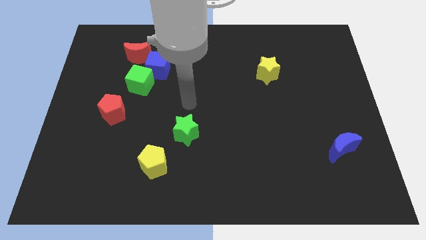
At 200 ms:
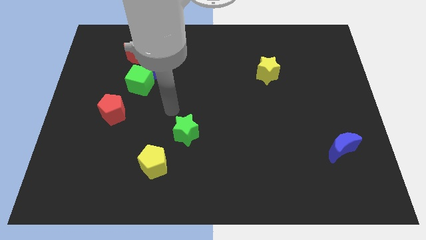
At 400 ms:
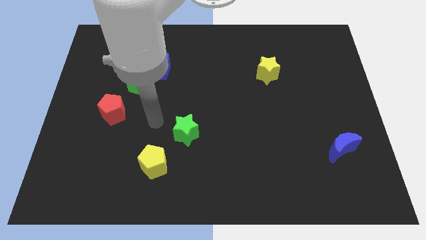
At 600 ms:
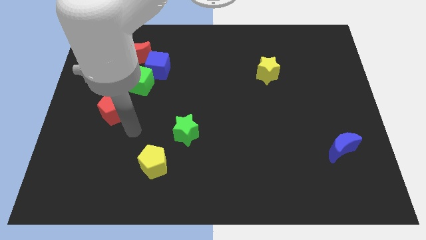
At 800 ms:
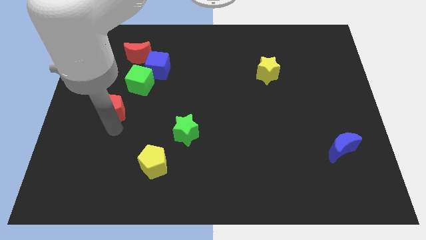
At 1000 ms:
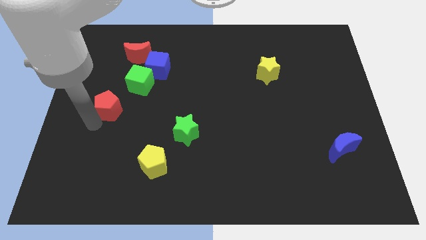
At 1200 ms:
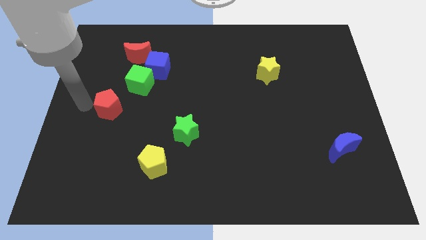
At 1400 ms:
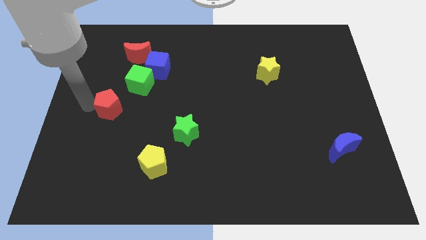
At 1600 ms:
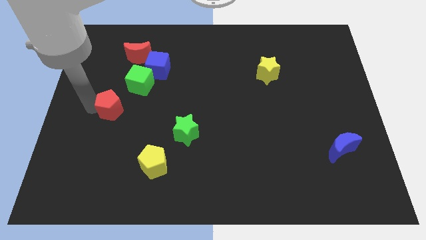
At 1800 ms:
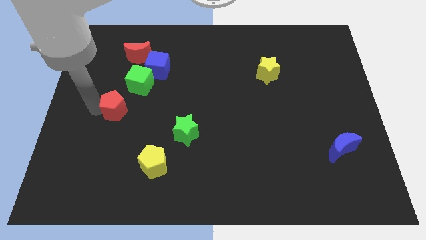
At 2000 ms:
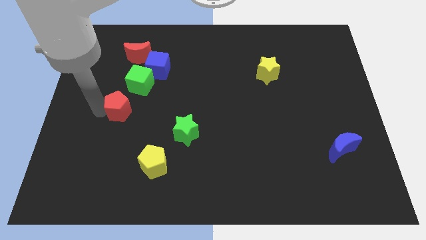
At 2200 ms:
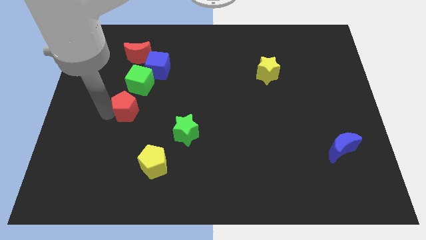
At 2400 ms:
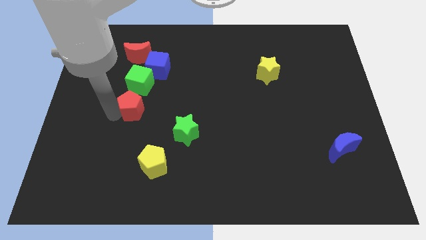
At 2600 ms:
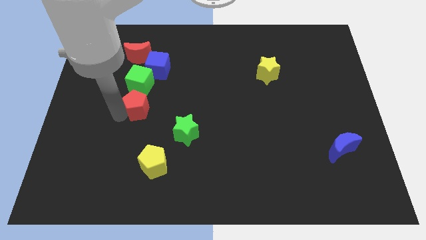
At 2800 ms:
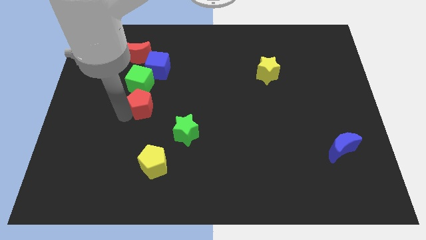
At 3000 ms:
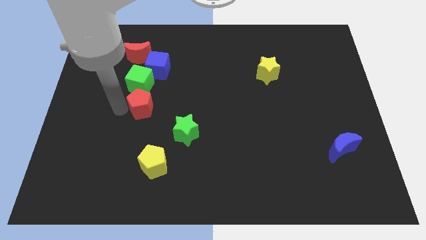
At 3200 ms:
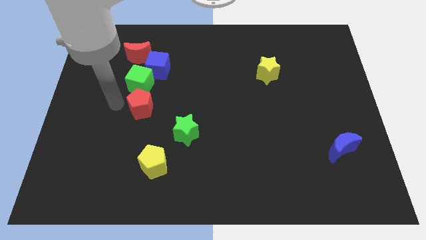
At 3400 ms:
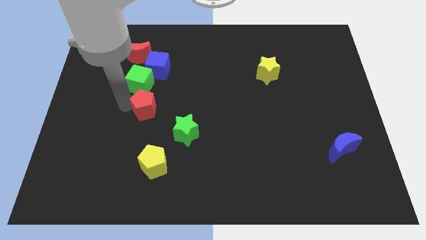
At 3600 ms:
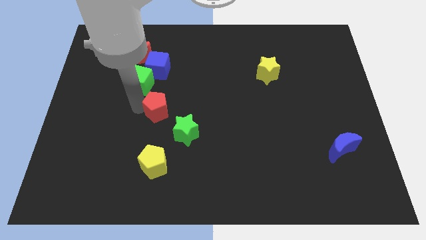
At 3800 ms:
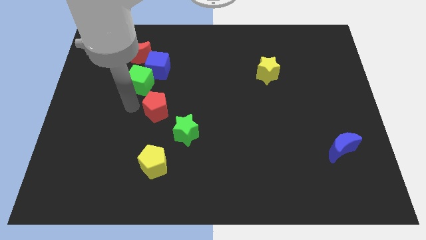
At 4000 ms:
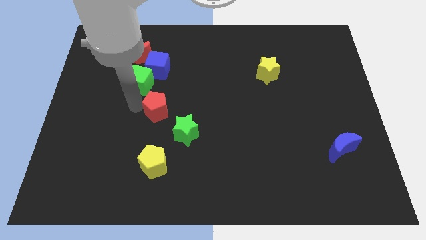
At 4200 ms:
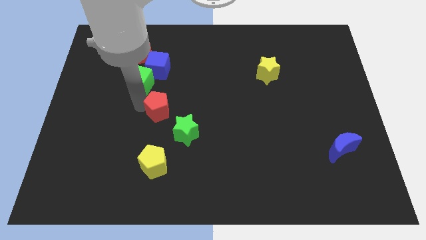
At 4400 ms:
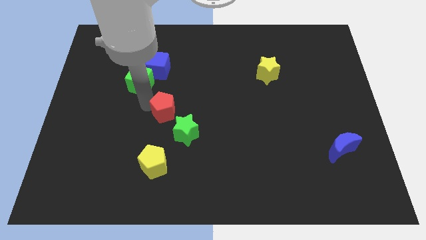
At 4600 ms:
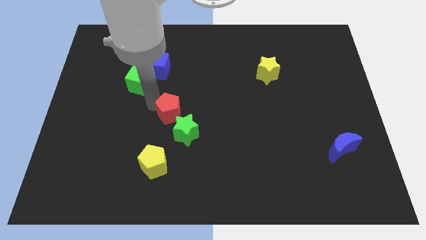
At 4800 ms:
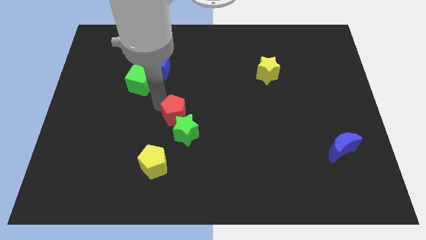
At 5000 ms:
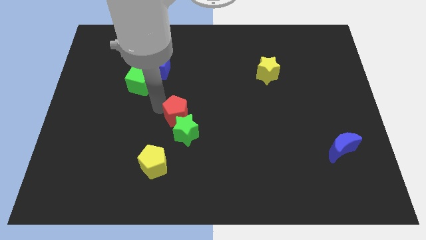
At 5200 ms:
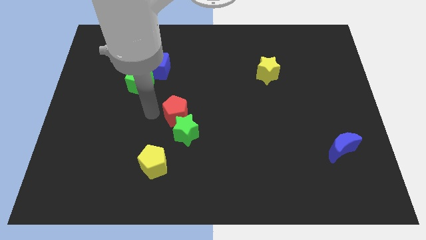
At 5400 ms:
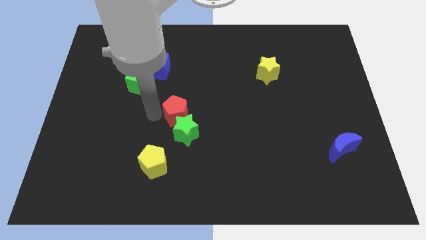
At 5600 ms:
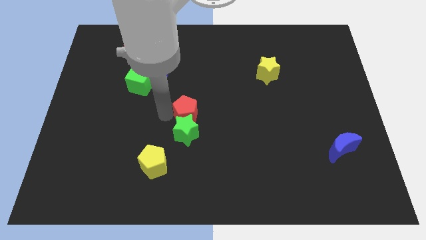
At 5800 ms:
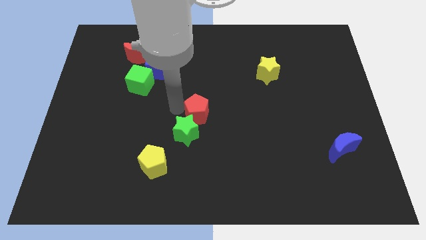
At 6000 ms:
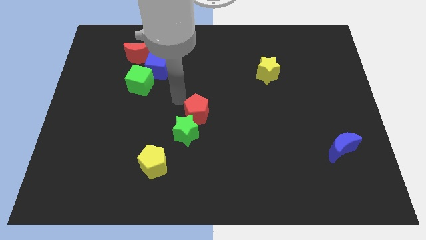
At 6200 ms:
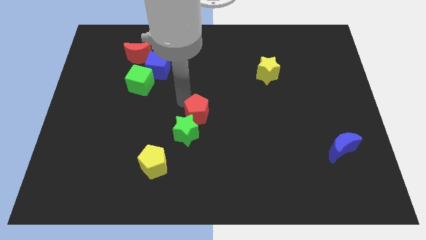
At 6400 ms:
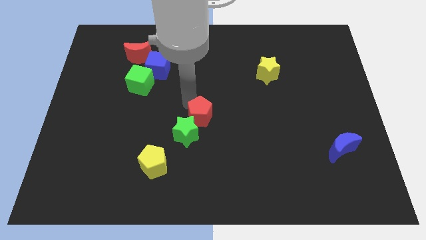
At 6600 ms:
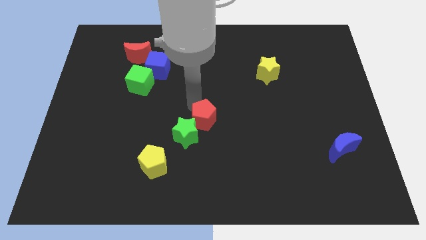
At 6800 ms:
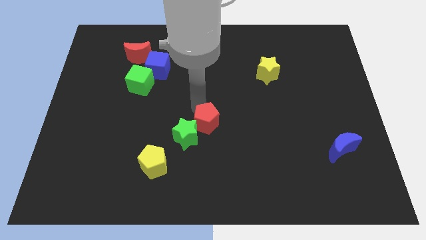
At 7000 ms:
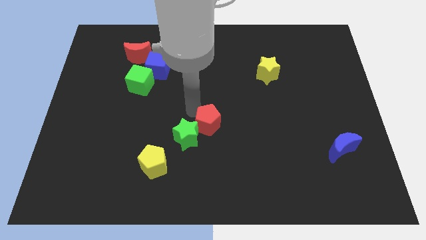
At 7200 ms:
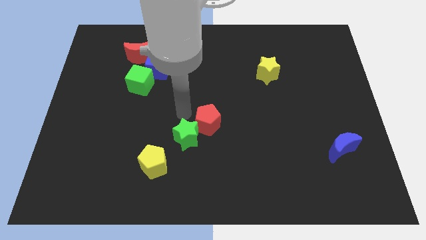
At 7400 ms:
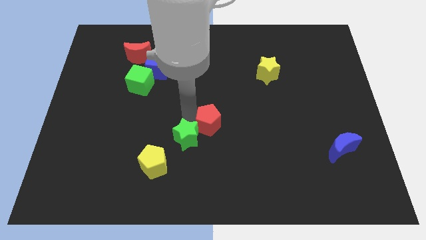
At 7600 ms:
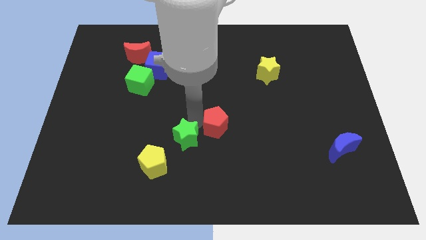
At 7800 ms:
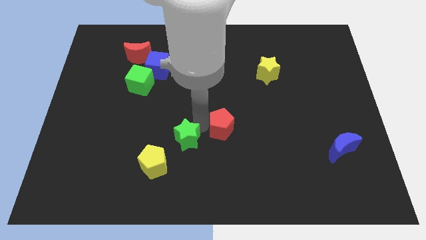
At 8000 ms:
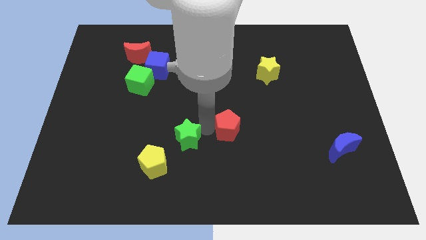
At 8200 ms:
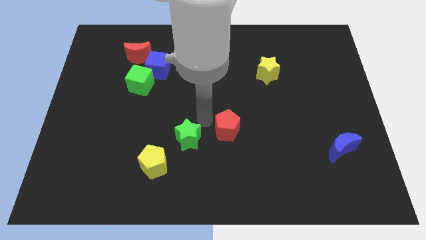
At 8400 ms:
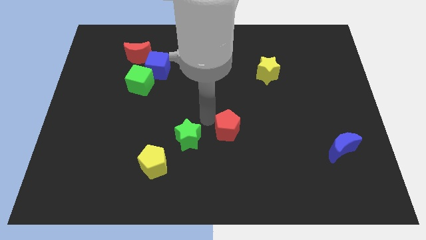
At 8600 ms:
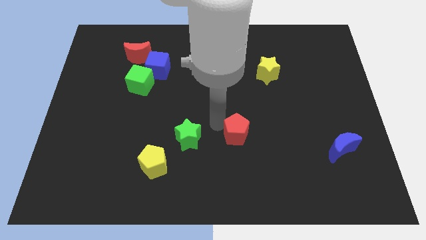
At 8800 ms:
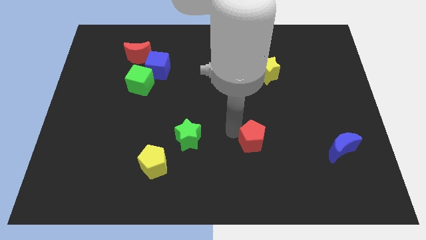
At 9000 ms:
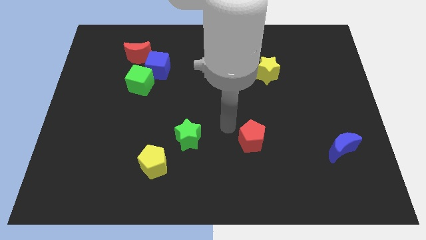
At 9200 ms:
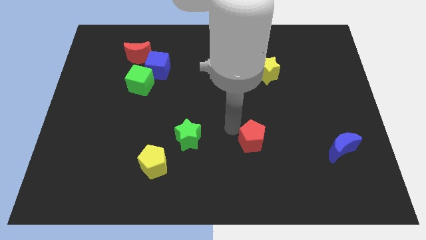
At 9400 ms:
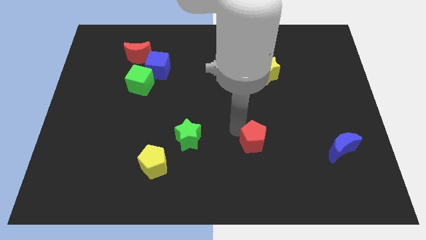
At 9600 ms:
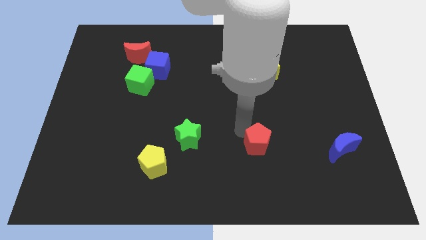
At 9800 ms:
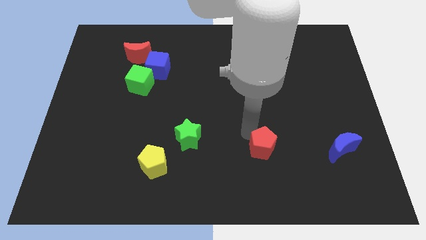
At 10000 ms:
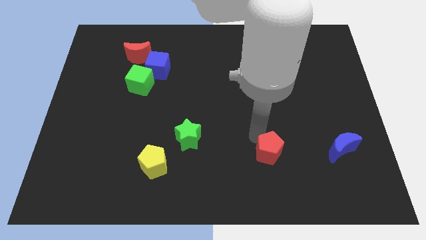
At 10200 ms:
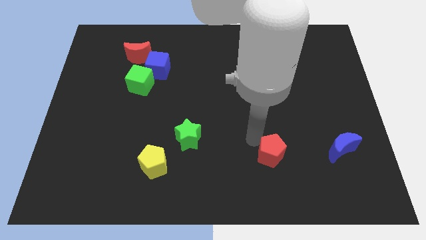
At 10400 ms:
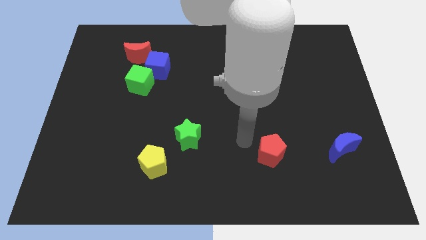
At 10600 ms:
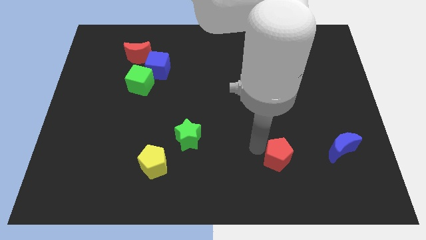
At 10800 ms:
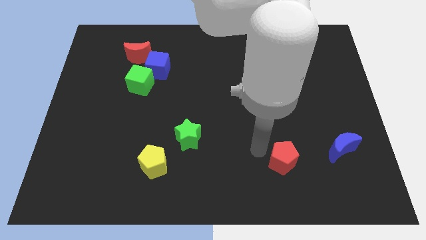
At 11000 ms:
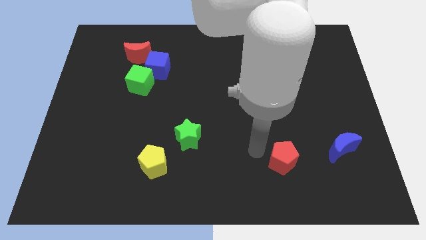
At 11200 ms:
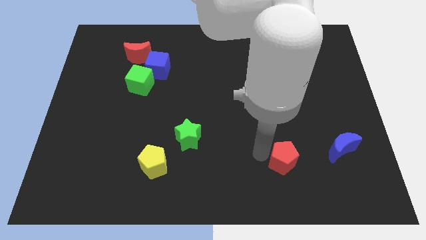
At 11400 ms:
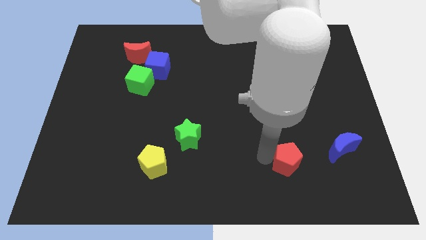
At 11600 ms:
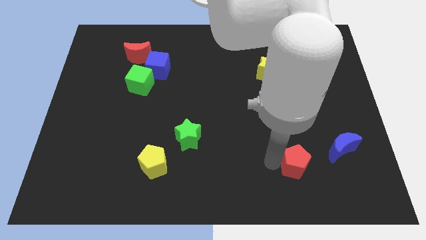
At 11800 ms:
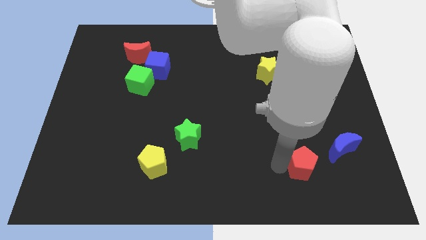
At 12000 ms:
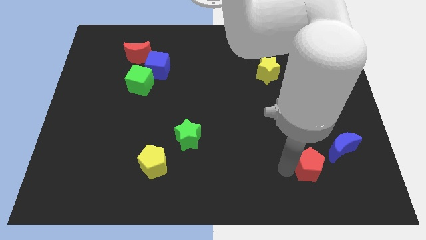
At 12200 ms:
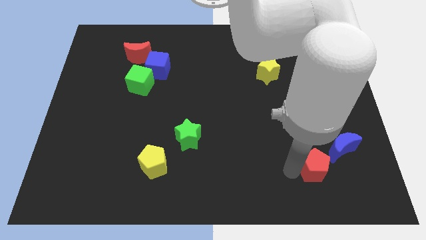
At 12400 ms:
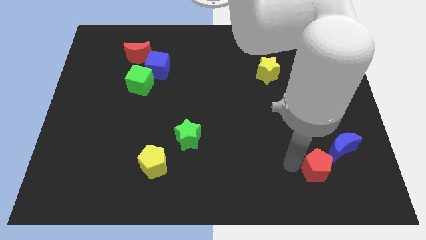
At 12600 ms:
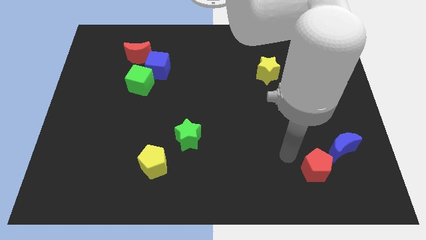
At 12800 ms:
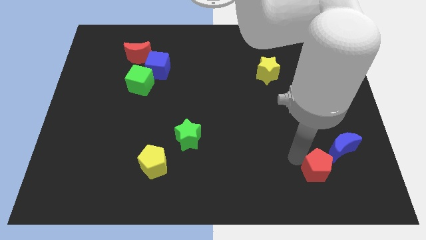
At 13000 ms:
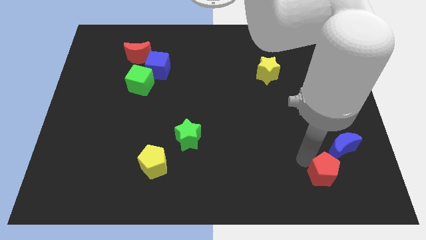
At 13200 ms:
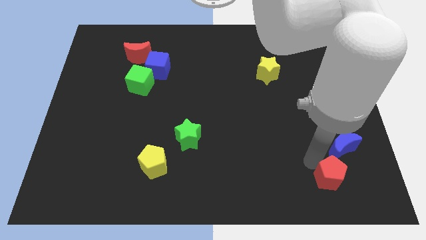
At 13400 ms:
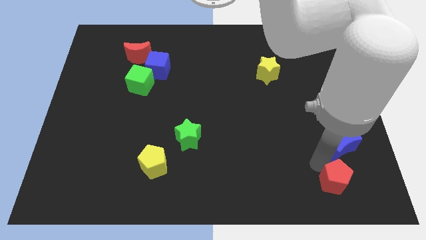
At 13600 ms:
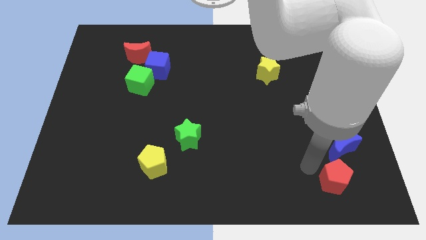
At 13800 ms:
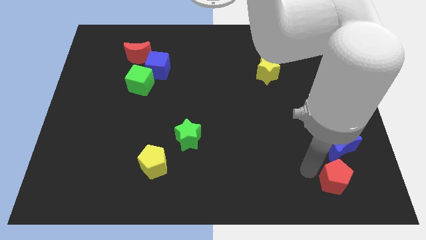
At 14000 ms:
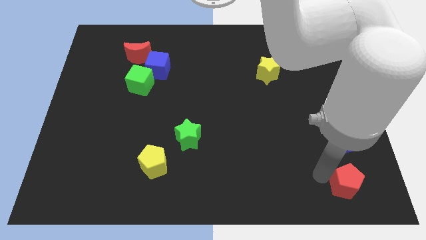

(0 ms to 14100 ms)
slide the red pentagon to the bottom right
